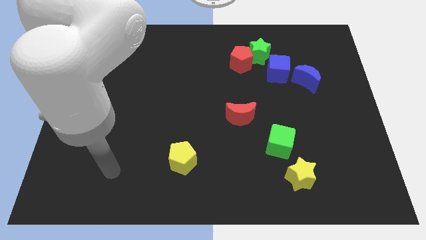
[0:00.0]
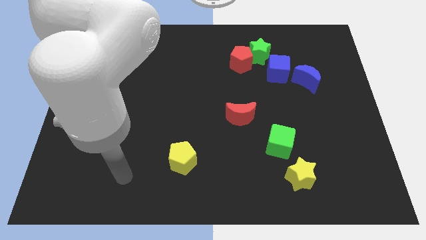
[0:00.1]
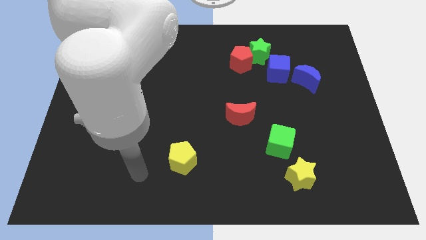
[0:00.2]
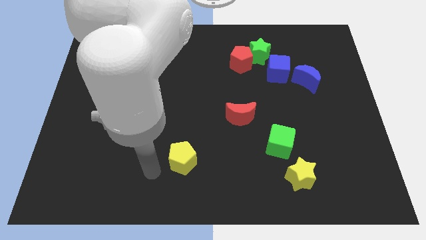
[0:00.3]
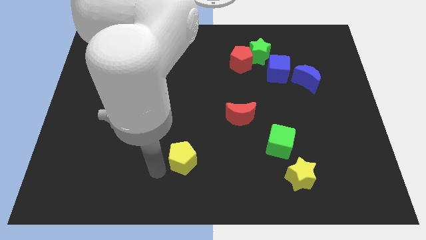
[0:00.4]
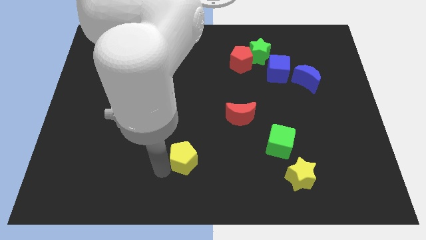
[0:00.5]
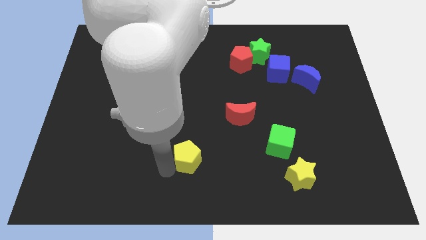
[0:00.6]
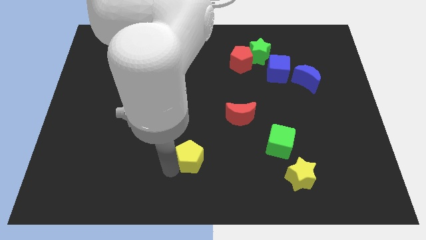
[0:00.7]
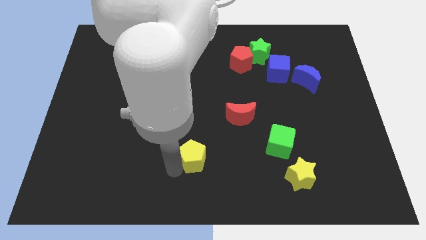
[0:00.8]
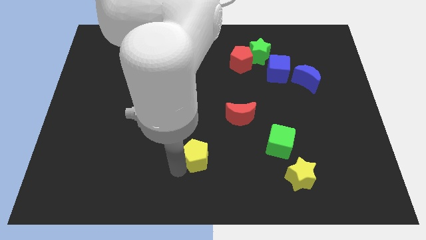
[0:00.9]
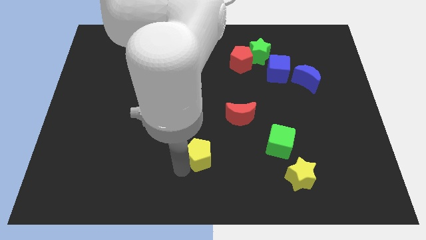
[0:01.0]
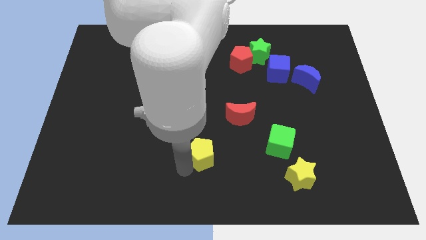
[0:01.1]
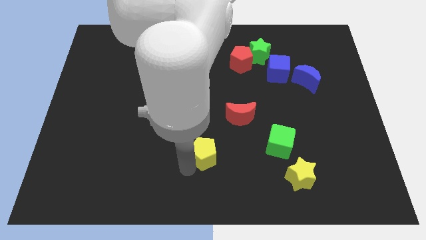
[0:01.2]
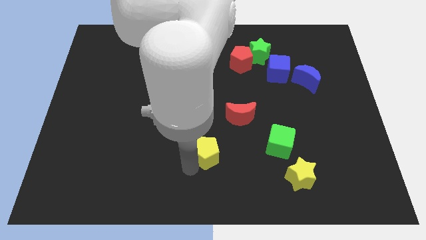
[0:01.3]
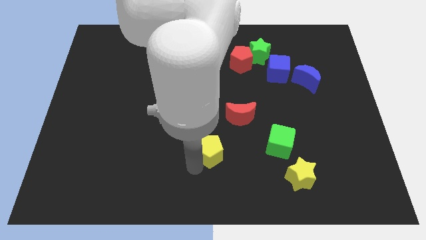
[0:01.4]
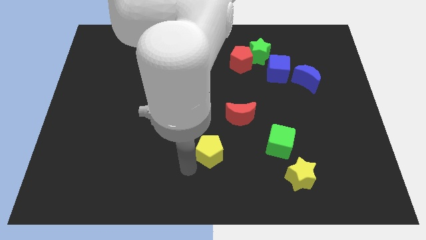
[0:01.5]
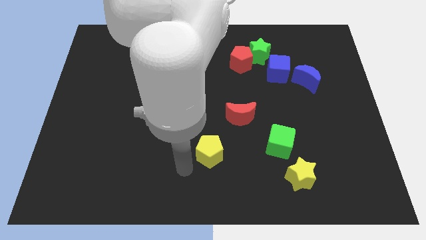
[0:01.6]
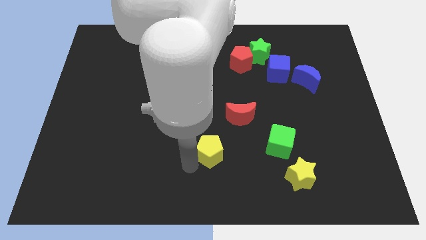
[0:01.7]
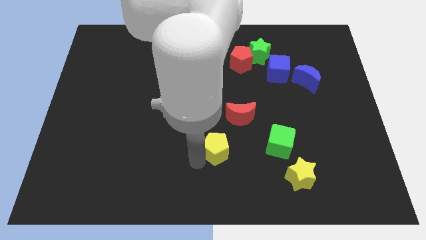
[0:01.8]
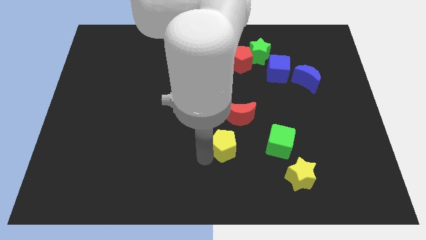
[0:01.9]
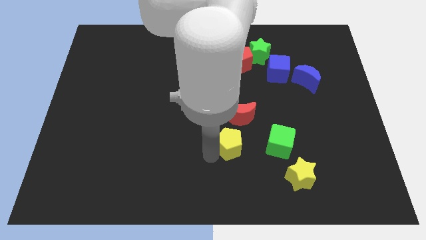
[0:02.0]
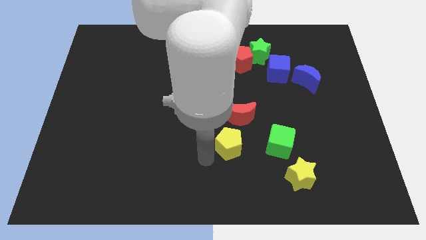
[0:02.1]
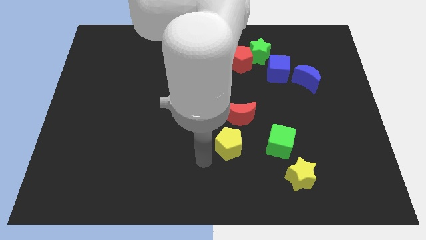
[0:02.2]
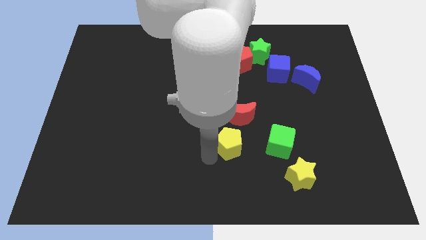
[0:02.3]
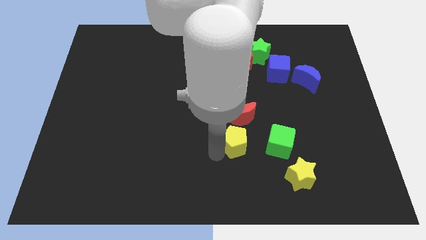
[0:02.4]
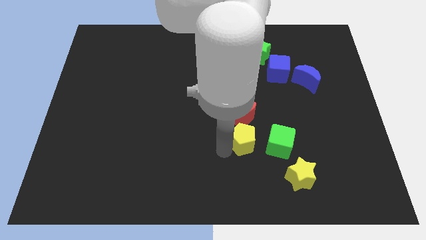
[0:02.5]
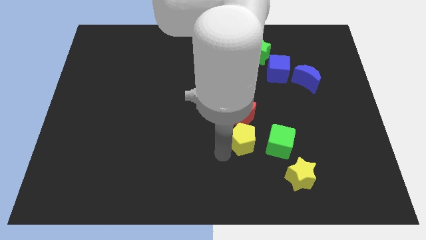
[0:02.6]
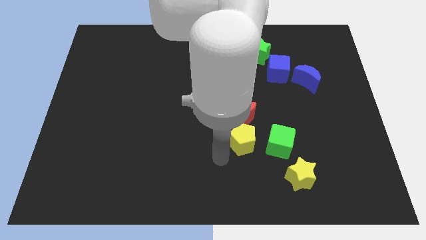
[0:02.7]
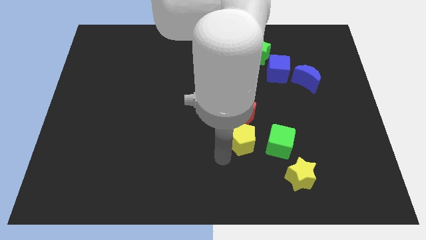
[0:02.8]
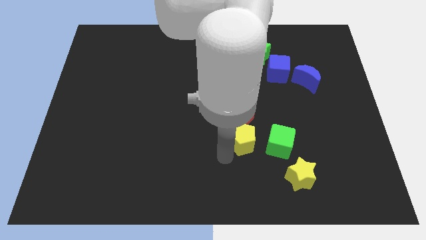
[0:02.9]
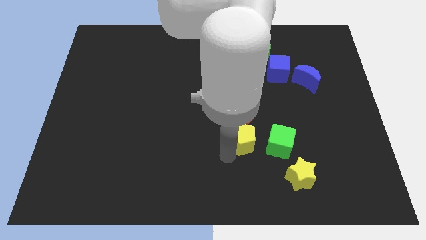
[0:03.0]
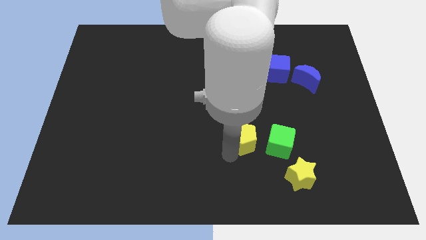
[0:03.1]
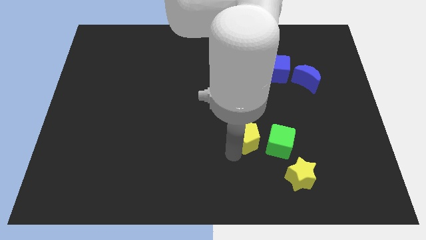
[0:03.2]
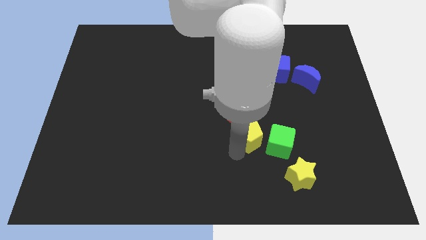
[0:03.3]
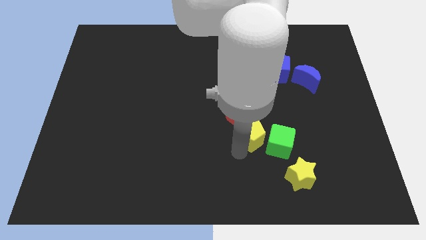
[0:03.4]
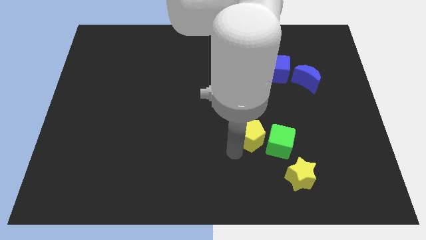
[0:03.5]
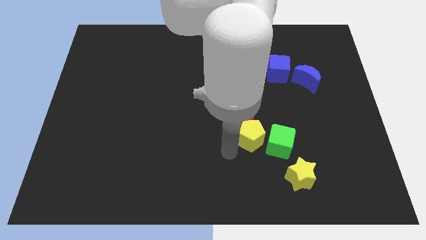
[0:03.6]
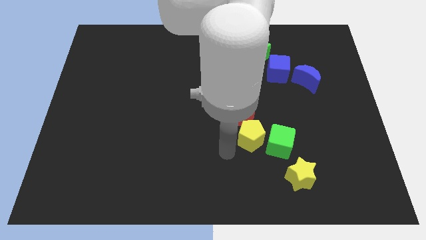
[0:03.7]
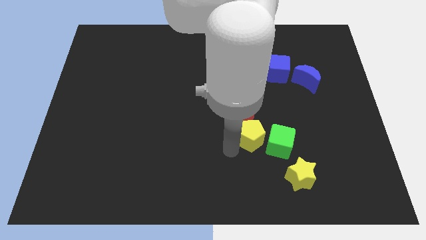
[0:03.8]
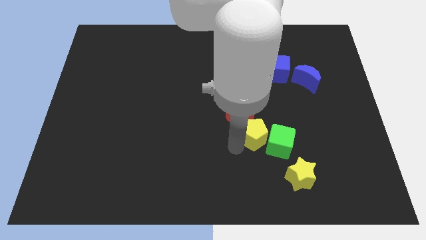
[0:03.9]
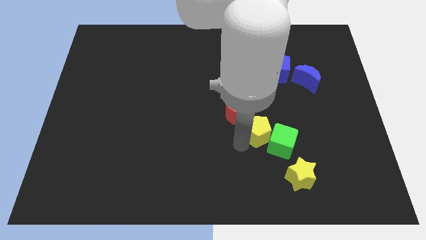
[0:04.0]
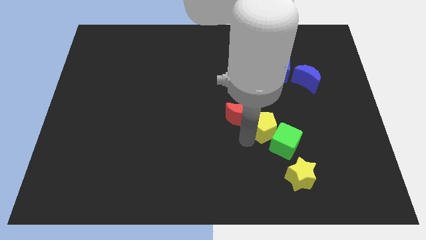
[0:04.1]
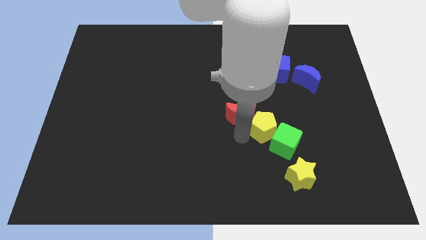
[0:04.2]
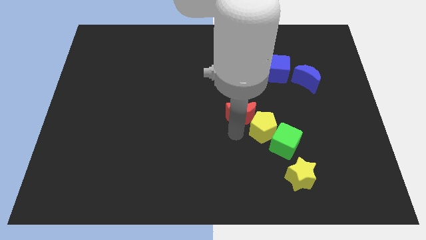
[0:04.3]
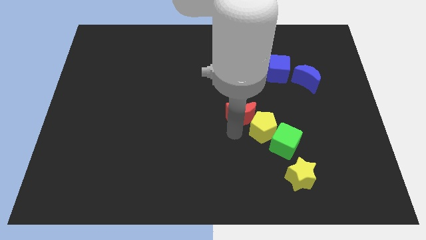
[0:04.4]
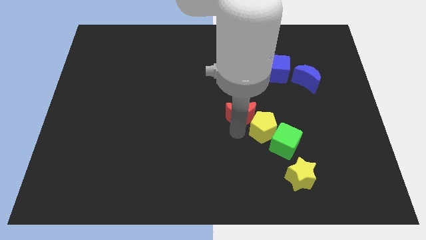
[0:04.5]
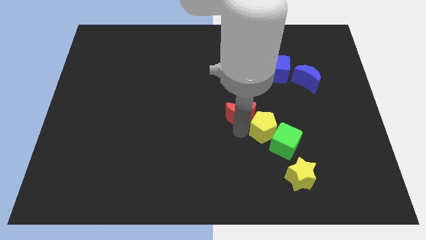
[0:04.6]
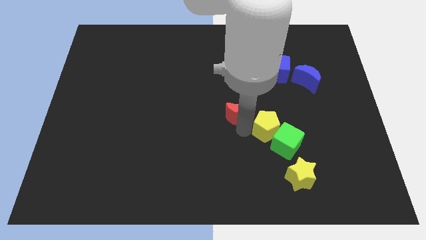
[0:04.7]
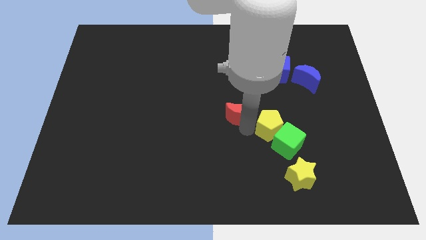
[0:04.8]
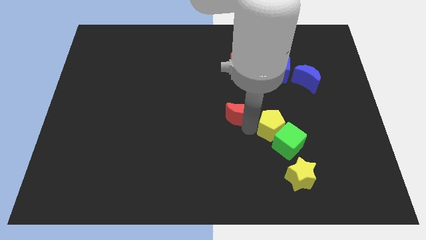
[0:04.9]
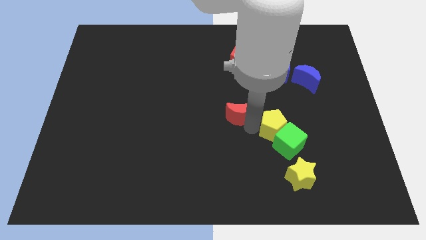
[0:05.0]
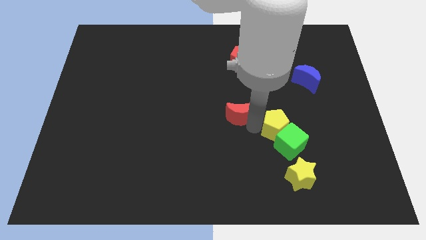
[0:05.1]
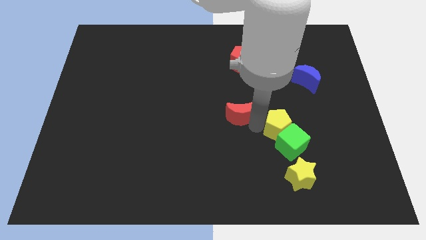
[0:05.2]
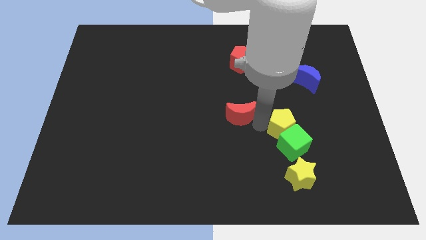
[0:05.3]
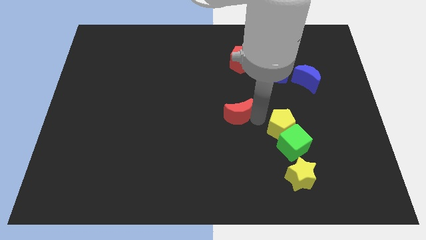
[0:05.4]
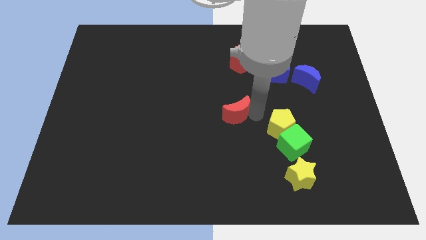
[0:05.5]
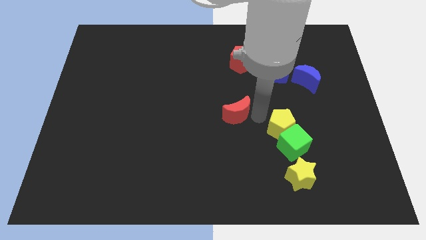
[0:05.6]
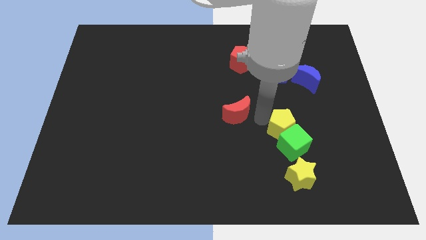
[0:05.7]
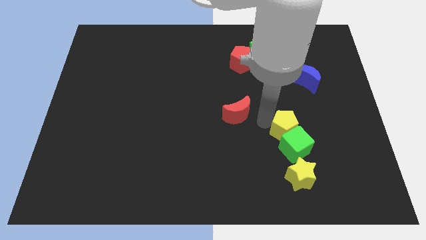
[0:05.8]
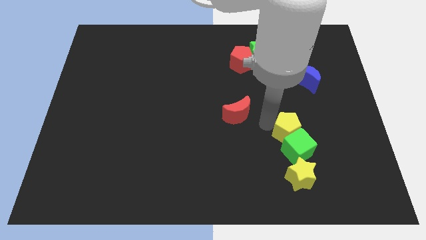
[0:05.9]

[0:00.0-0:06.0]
slide the yellow pentagon to the right

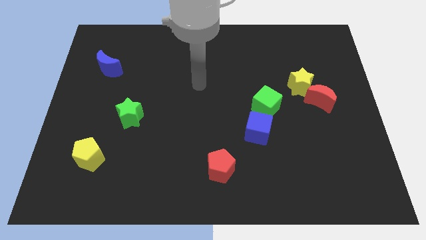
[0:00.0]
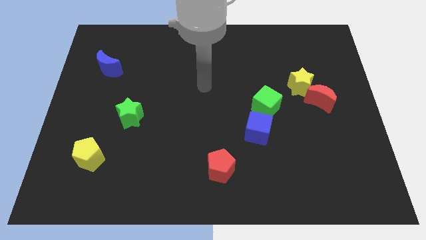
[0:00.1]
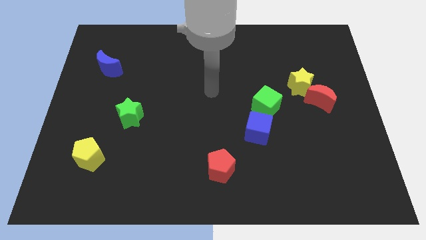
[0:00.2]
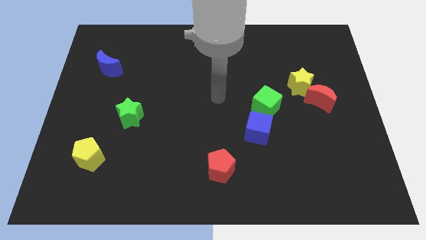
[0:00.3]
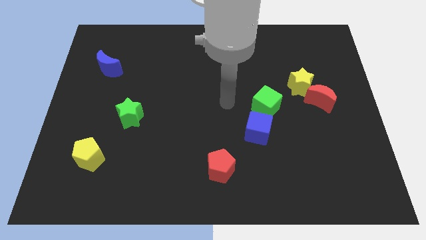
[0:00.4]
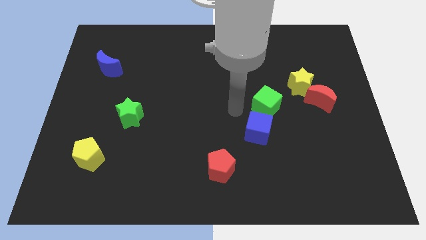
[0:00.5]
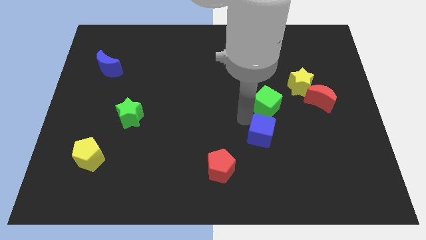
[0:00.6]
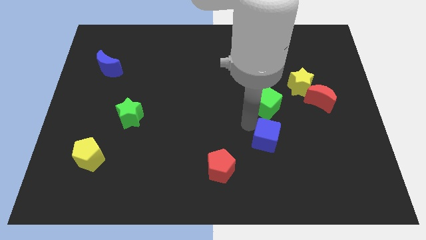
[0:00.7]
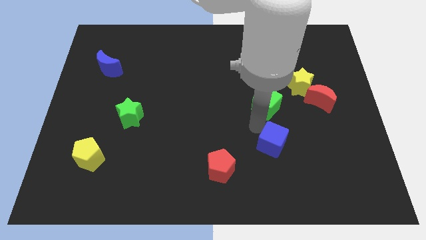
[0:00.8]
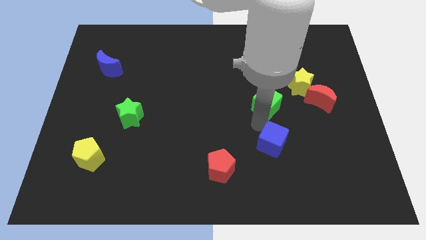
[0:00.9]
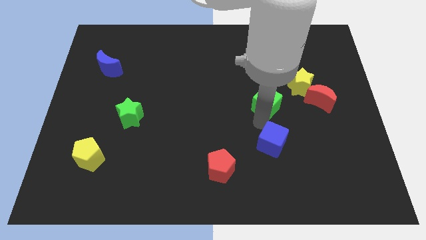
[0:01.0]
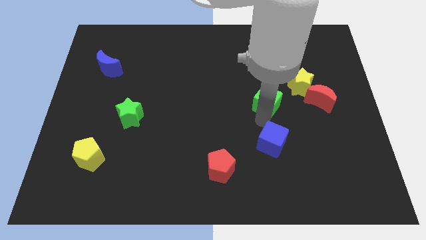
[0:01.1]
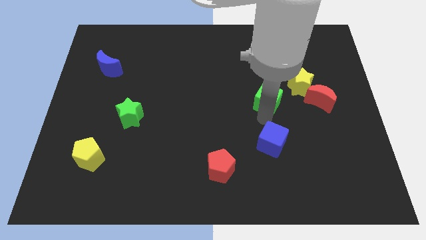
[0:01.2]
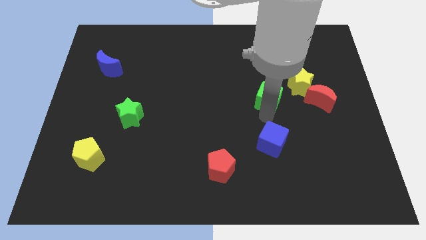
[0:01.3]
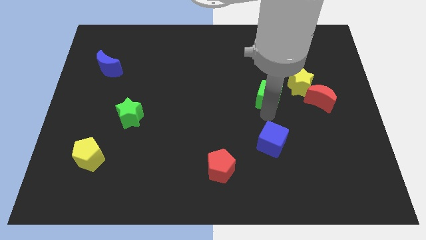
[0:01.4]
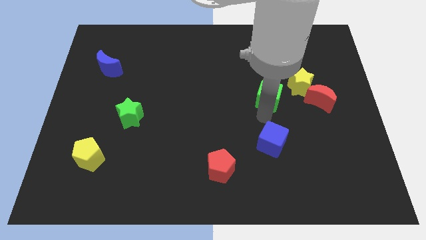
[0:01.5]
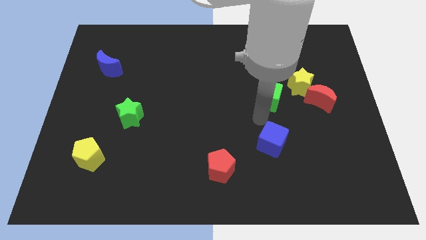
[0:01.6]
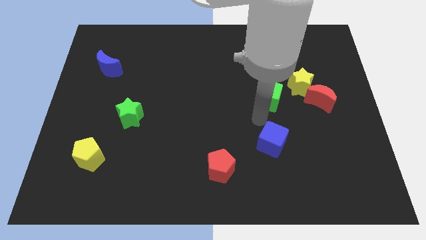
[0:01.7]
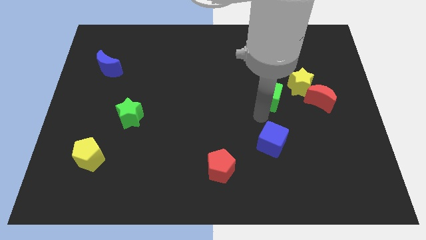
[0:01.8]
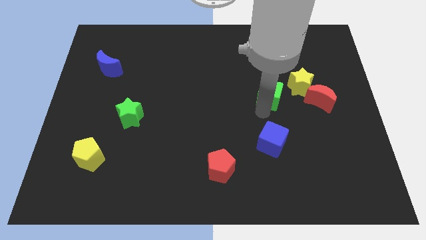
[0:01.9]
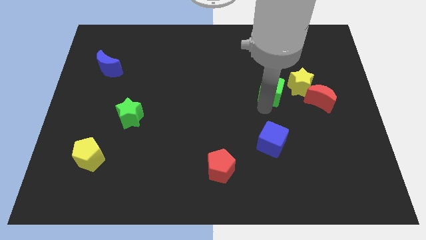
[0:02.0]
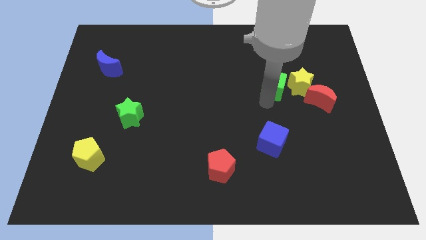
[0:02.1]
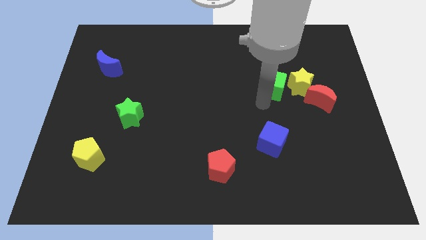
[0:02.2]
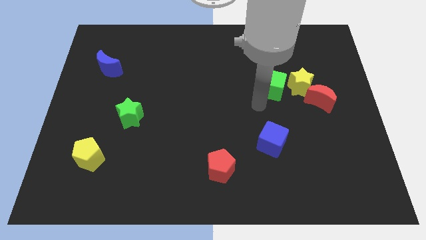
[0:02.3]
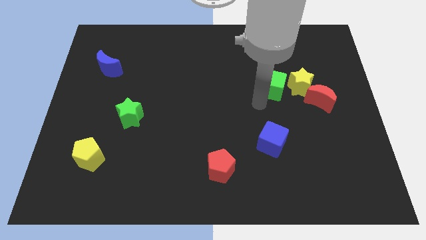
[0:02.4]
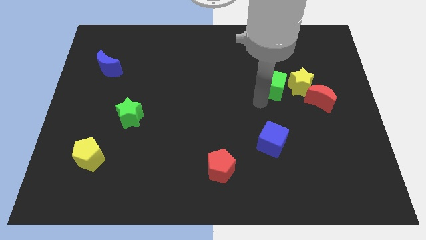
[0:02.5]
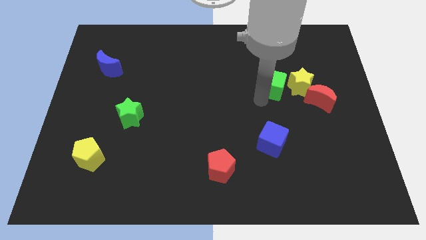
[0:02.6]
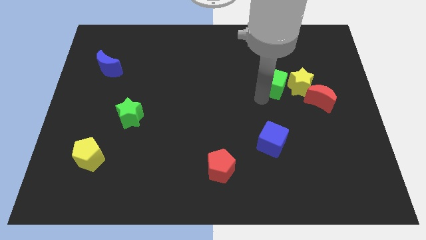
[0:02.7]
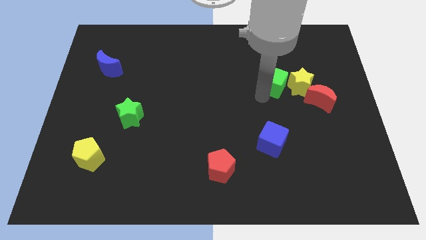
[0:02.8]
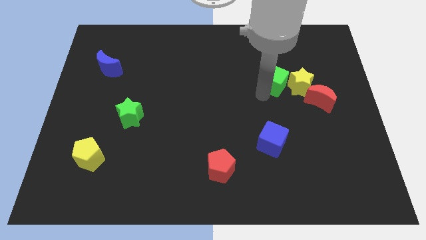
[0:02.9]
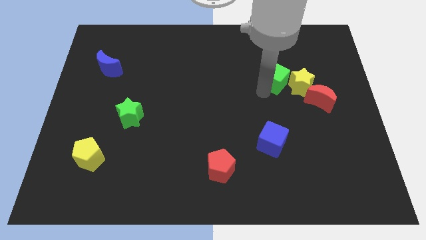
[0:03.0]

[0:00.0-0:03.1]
move the green cube a bit up and right diagonally
